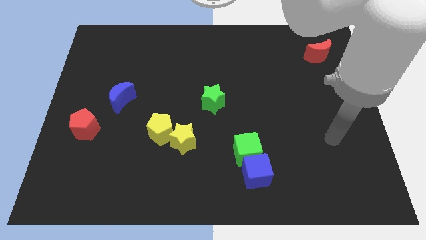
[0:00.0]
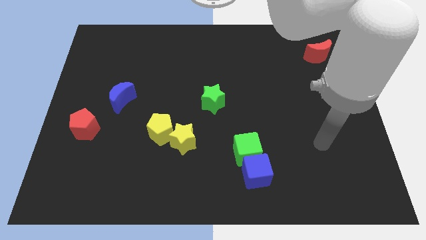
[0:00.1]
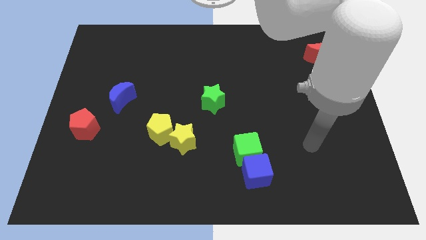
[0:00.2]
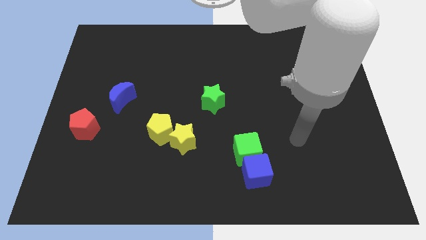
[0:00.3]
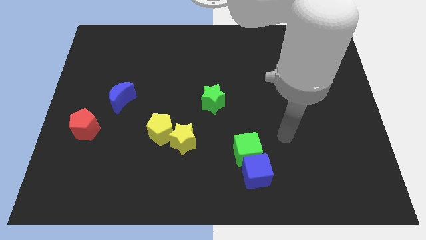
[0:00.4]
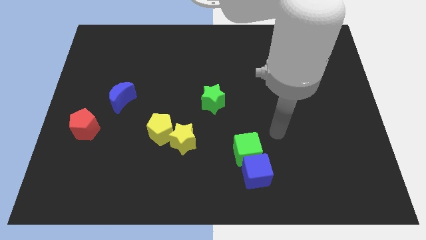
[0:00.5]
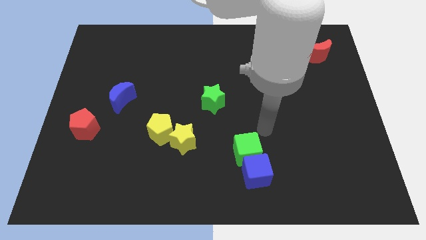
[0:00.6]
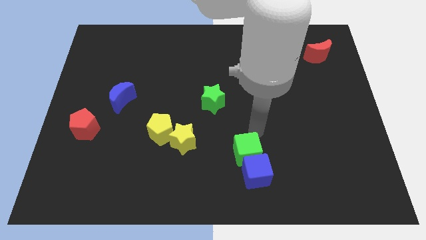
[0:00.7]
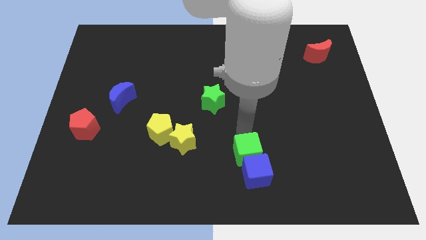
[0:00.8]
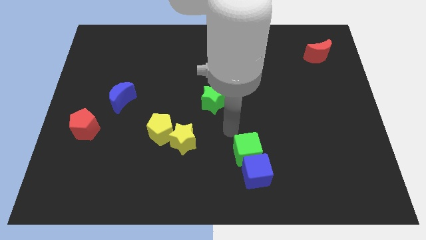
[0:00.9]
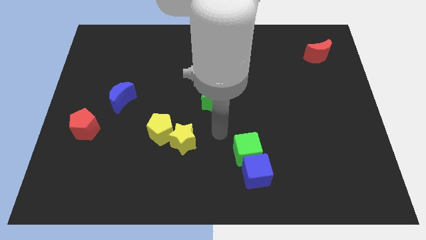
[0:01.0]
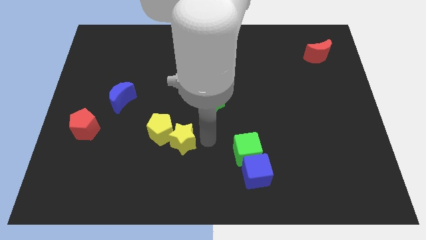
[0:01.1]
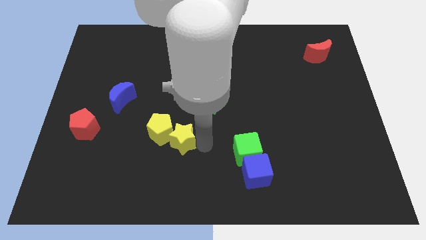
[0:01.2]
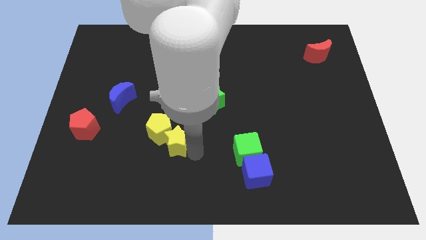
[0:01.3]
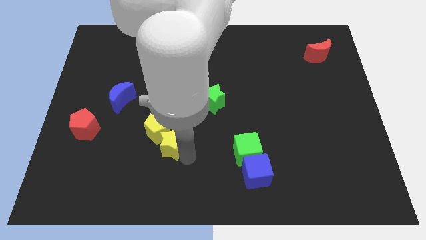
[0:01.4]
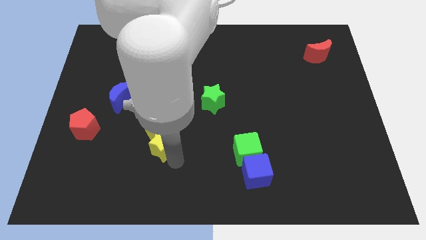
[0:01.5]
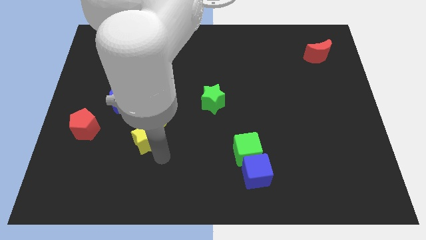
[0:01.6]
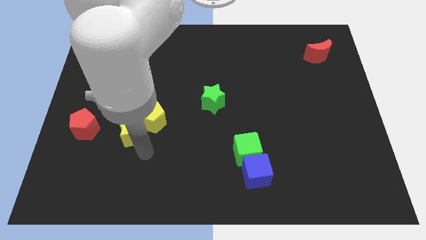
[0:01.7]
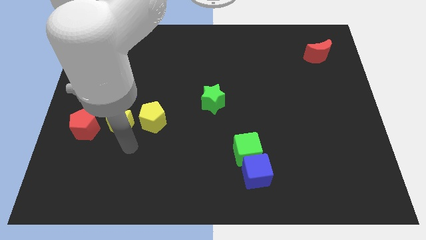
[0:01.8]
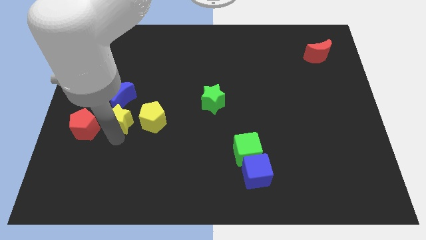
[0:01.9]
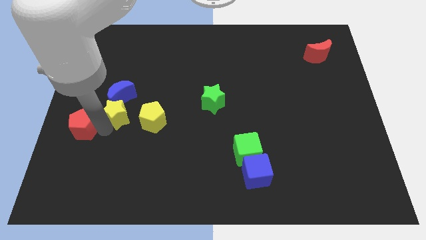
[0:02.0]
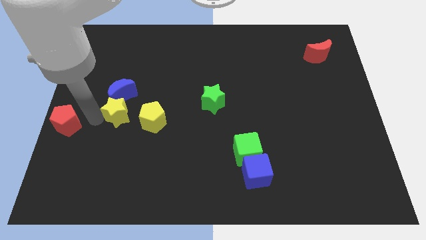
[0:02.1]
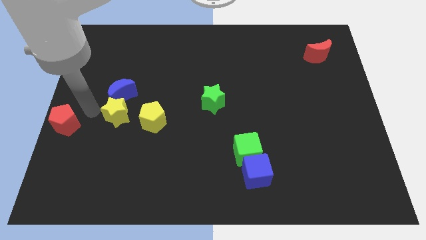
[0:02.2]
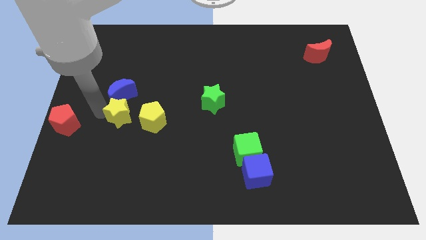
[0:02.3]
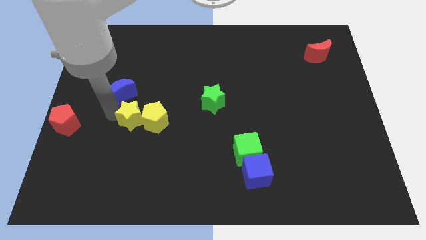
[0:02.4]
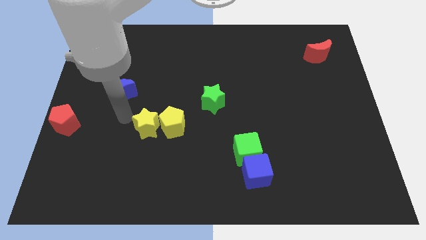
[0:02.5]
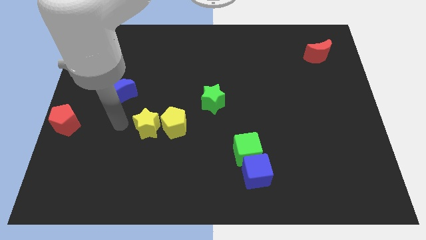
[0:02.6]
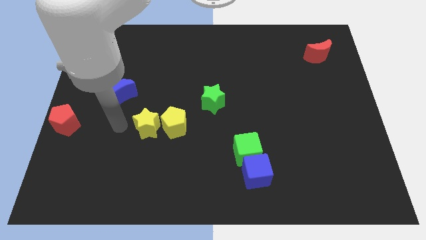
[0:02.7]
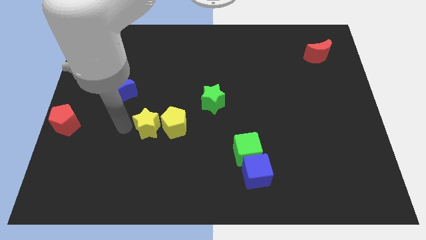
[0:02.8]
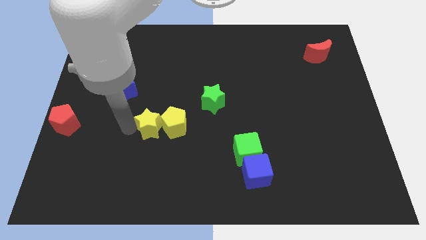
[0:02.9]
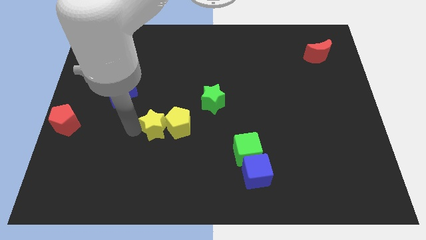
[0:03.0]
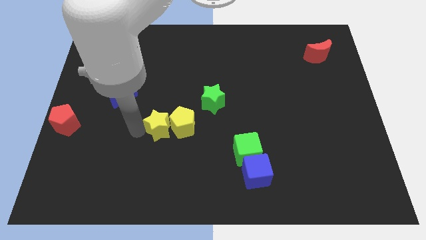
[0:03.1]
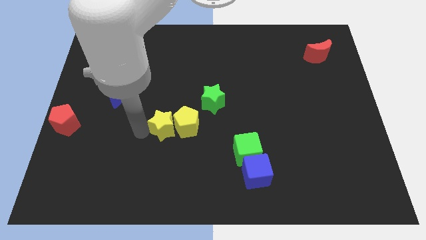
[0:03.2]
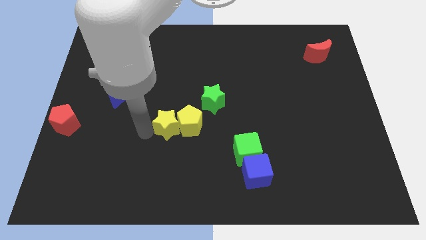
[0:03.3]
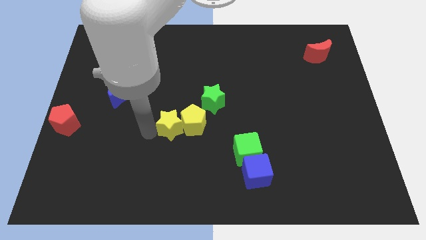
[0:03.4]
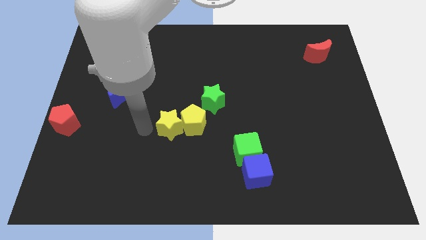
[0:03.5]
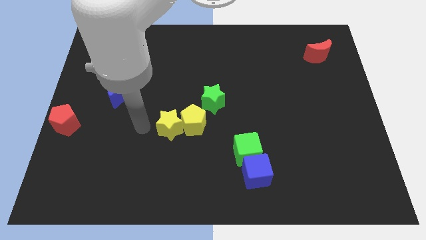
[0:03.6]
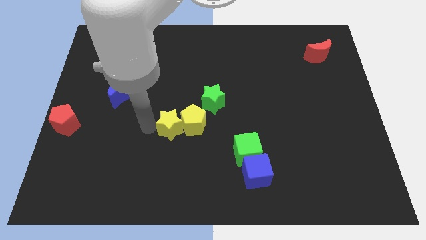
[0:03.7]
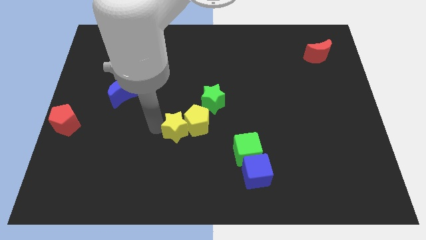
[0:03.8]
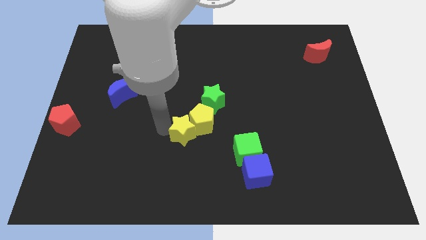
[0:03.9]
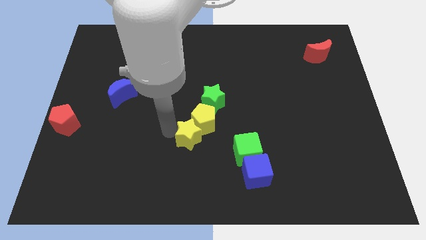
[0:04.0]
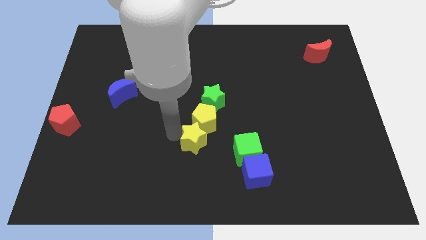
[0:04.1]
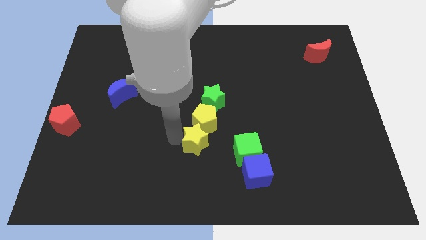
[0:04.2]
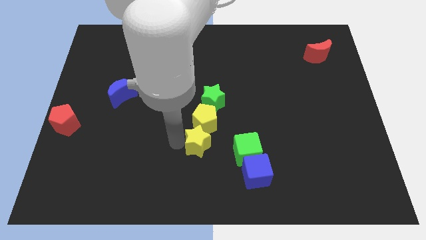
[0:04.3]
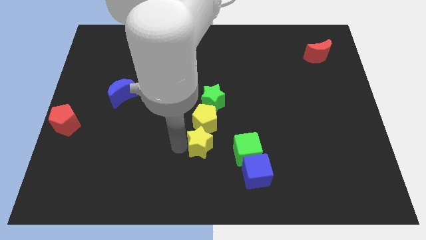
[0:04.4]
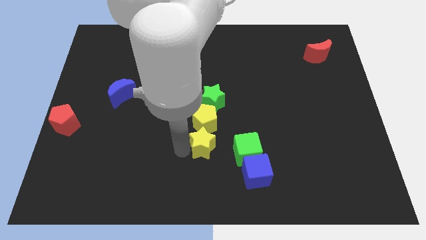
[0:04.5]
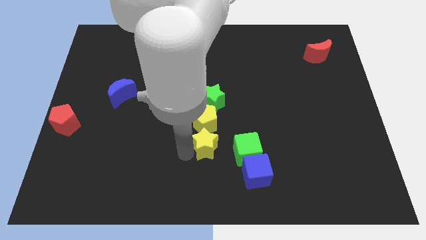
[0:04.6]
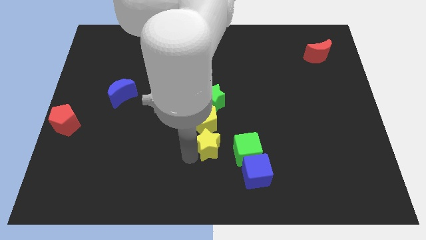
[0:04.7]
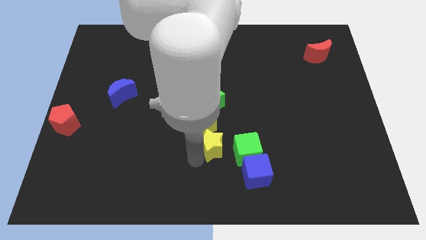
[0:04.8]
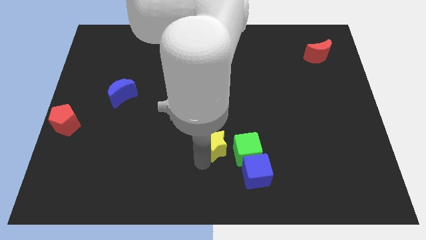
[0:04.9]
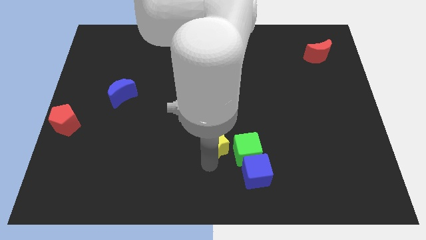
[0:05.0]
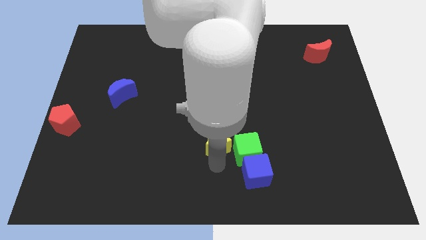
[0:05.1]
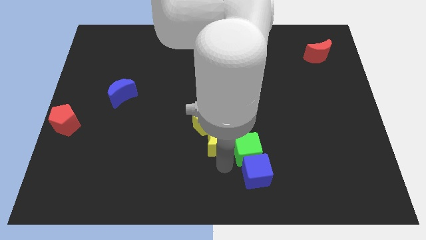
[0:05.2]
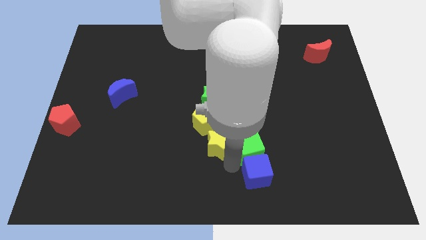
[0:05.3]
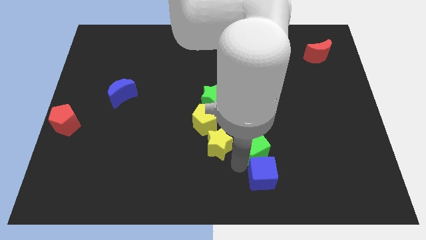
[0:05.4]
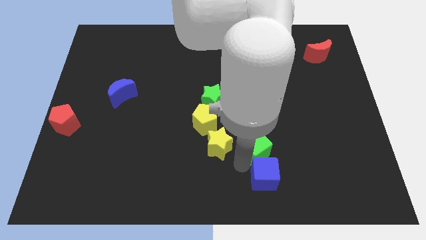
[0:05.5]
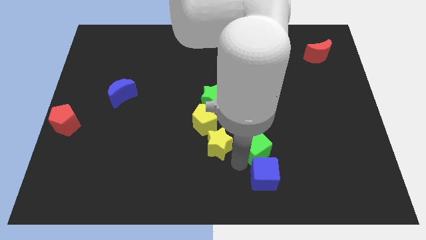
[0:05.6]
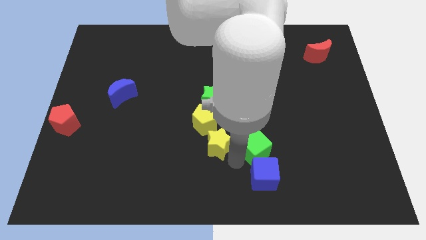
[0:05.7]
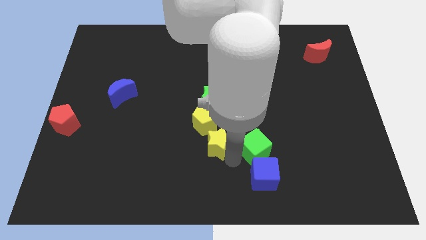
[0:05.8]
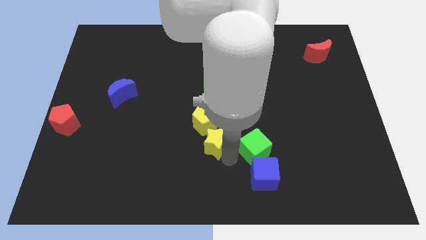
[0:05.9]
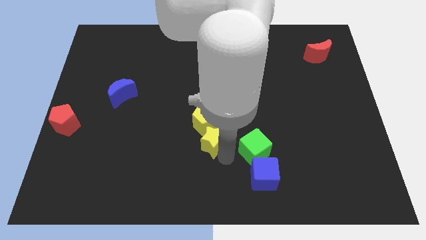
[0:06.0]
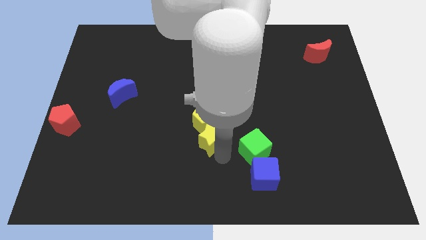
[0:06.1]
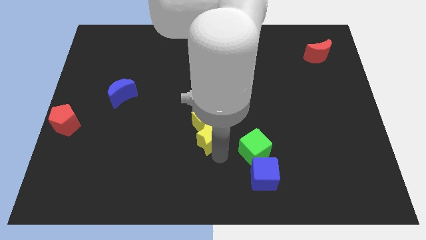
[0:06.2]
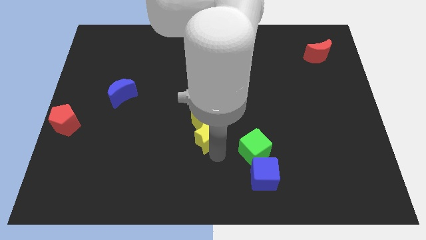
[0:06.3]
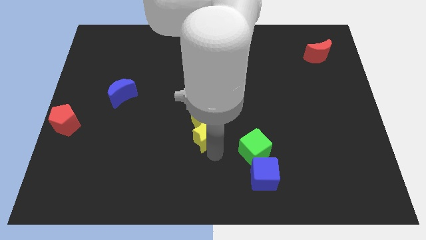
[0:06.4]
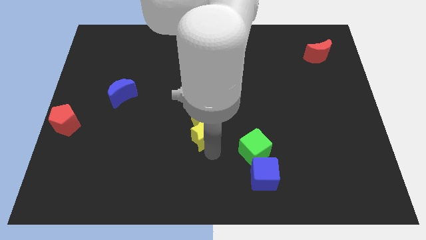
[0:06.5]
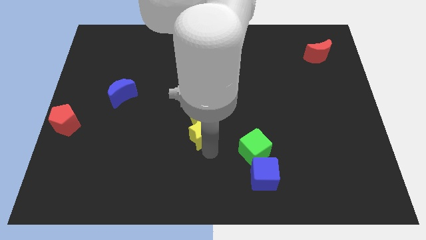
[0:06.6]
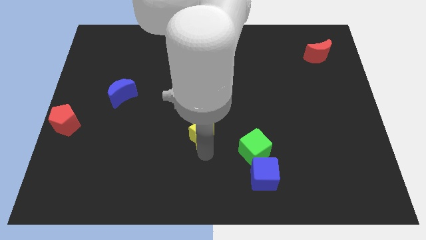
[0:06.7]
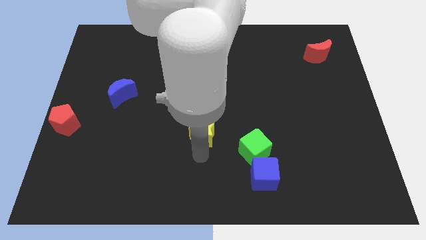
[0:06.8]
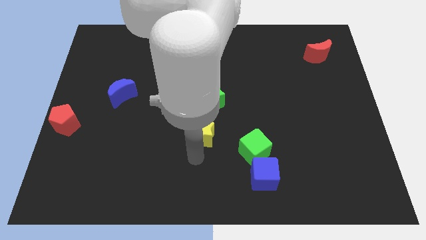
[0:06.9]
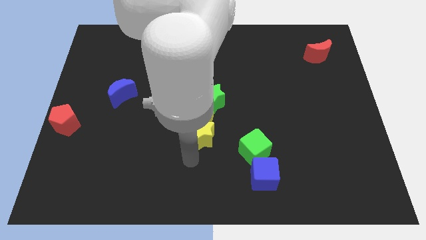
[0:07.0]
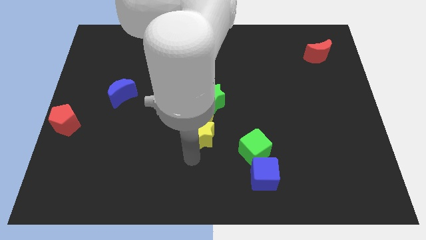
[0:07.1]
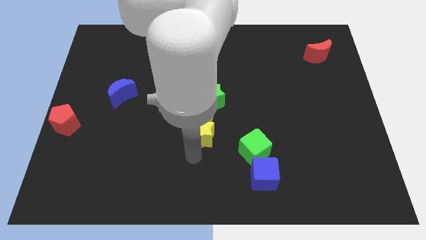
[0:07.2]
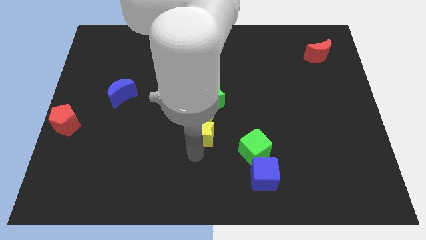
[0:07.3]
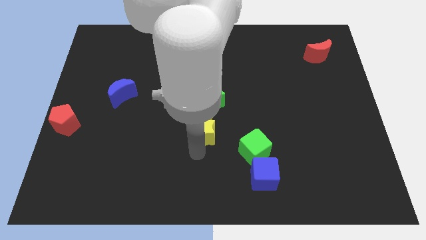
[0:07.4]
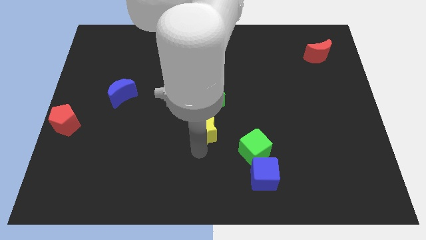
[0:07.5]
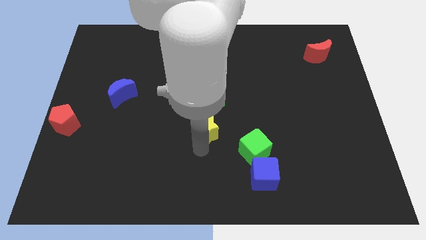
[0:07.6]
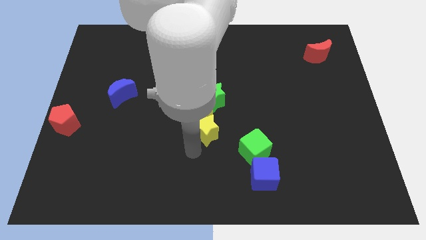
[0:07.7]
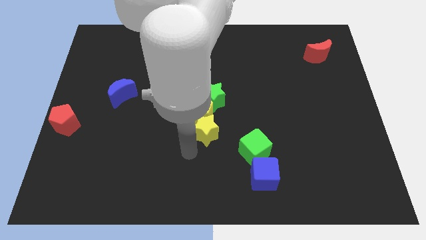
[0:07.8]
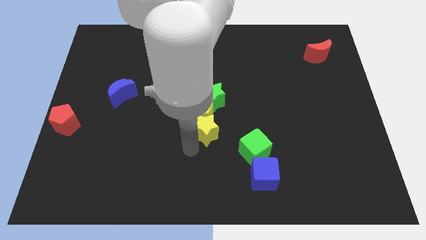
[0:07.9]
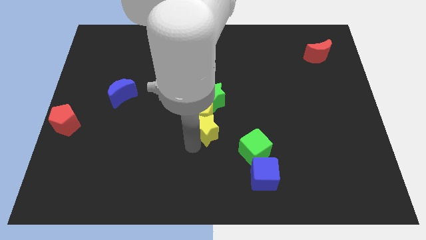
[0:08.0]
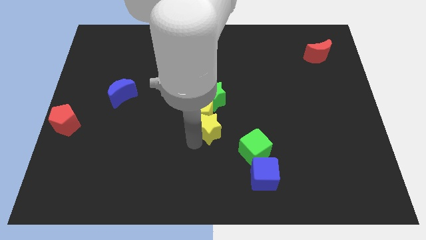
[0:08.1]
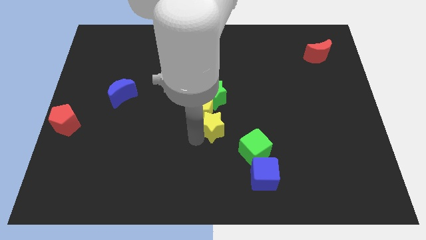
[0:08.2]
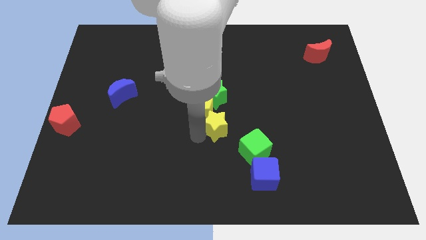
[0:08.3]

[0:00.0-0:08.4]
push the yellow star slightly up and then to the right
